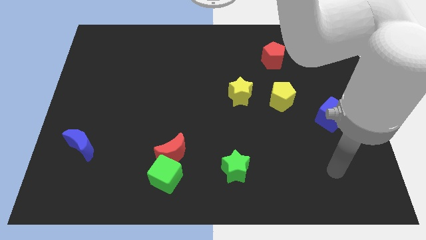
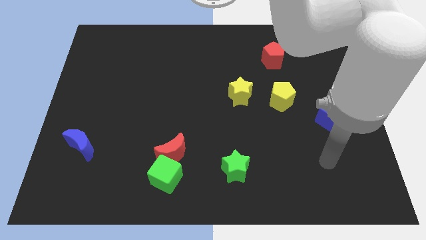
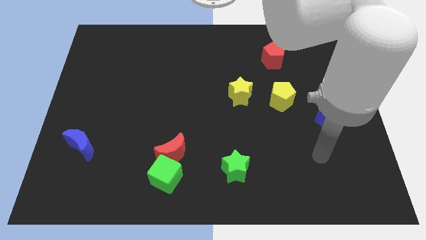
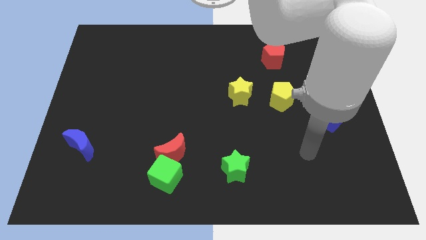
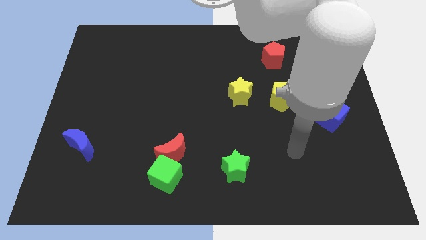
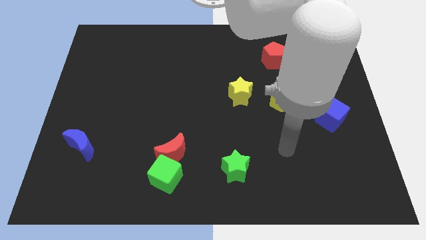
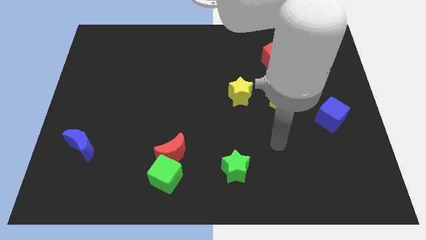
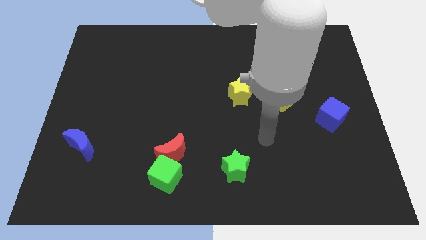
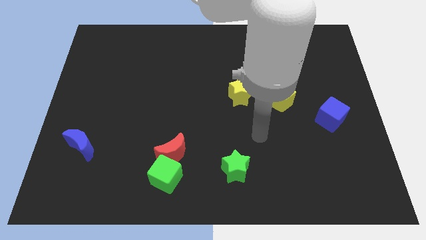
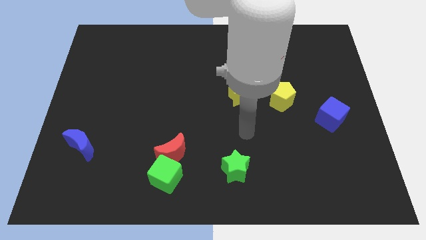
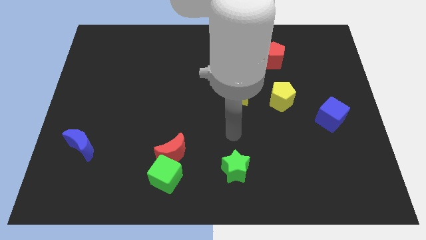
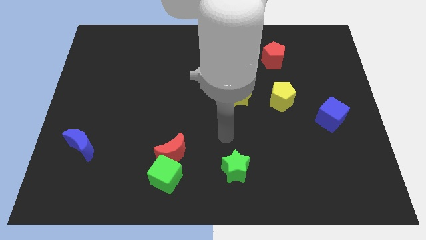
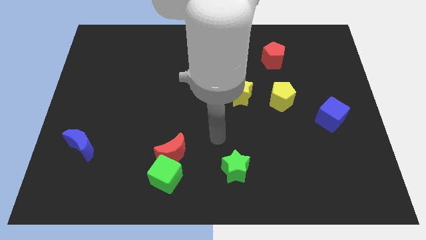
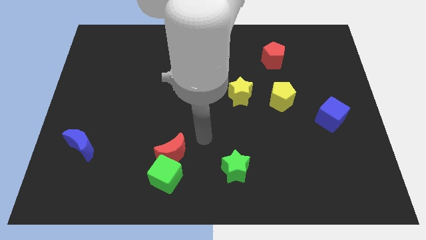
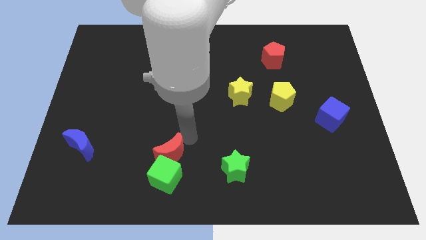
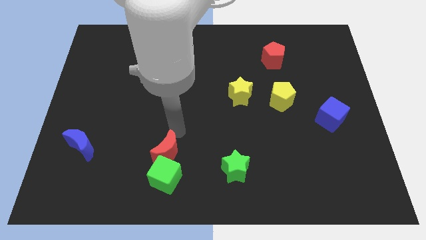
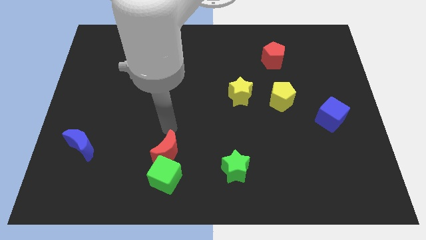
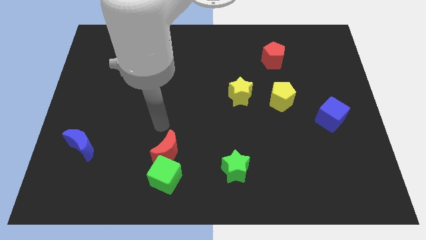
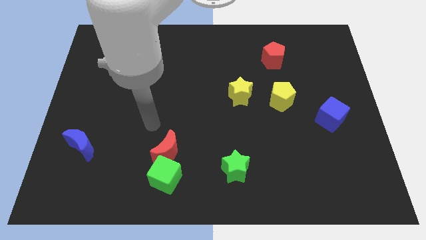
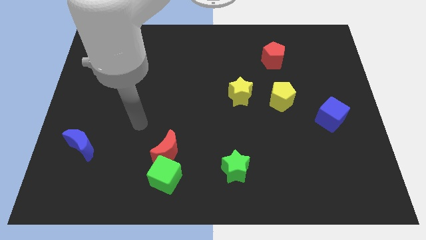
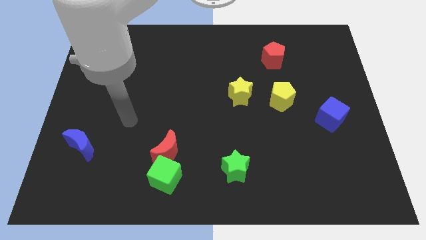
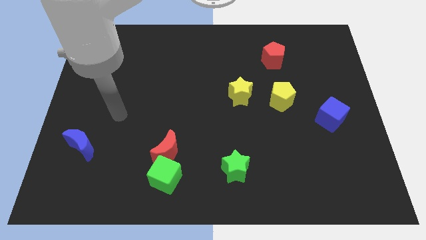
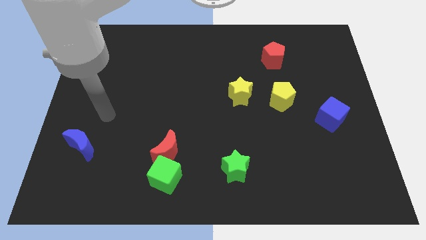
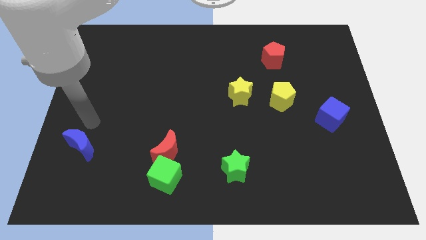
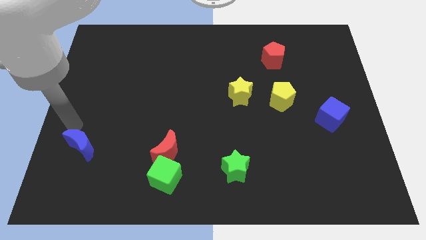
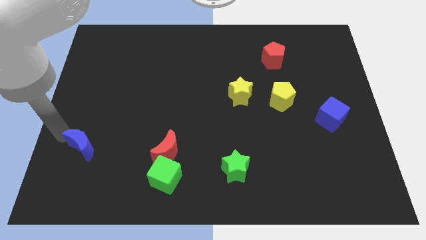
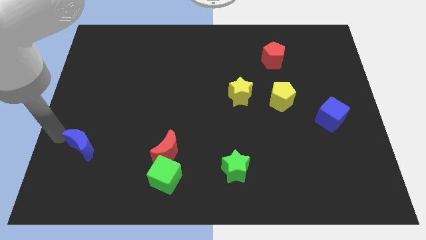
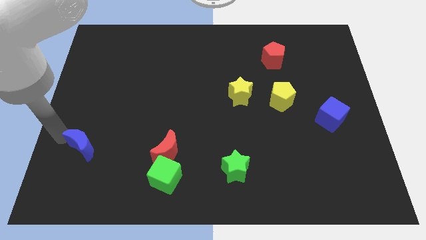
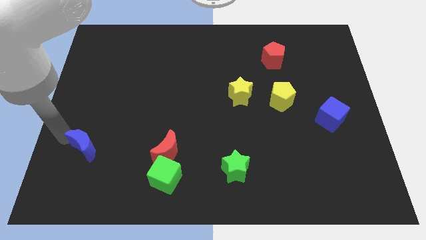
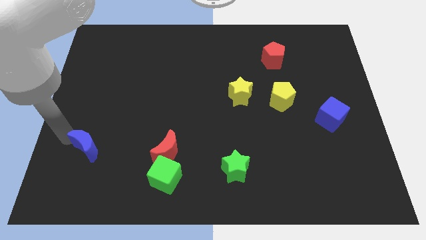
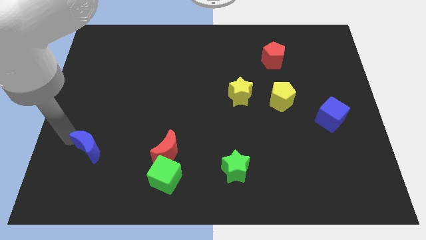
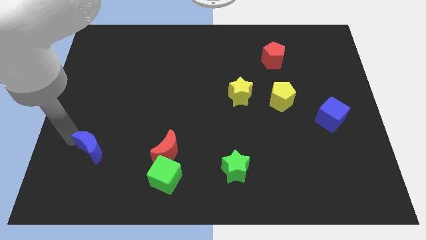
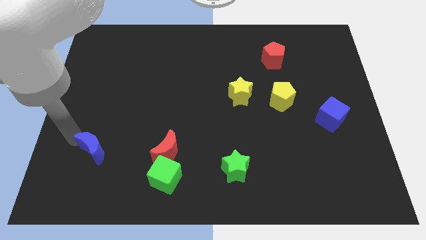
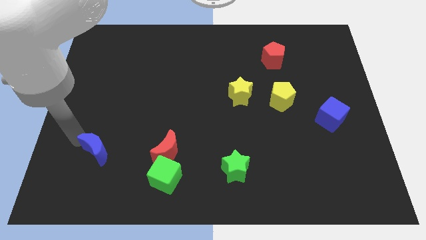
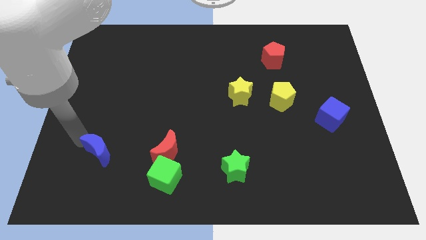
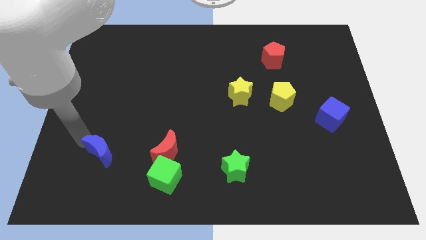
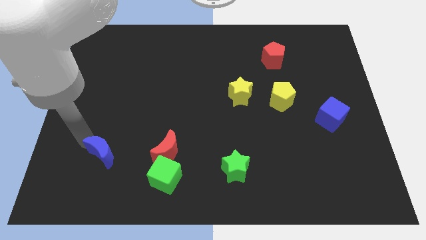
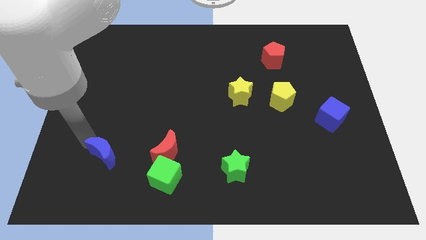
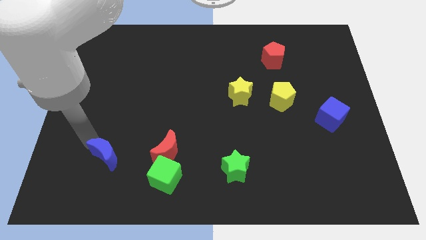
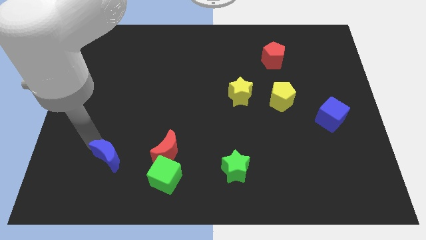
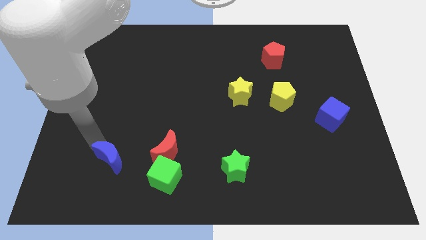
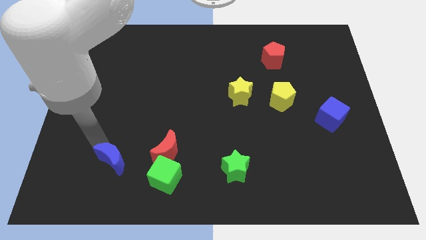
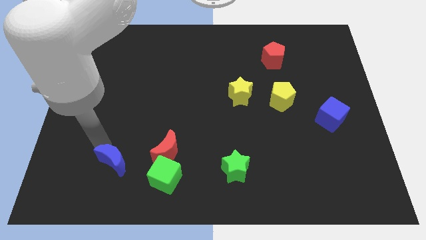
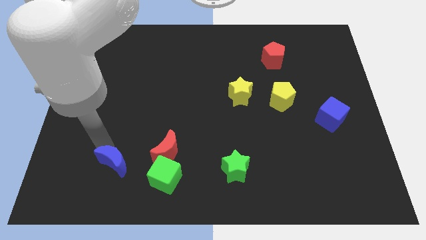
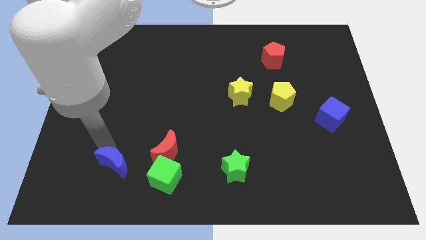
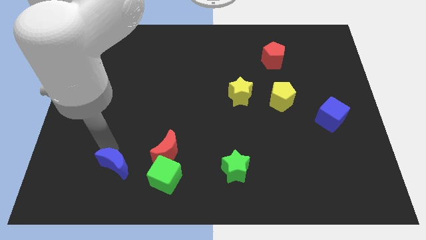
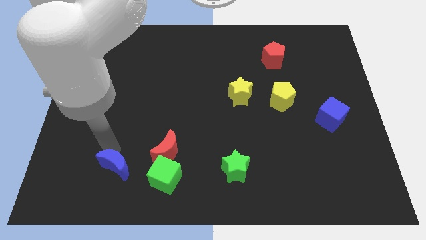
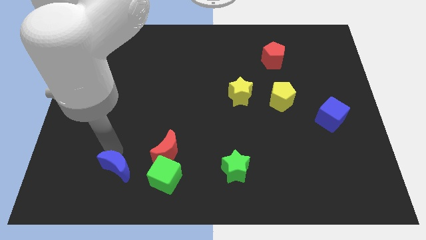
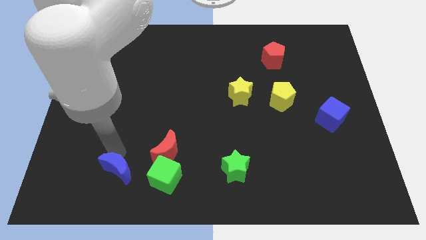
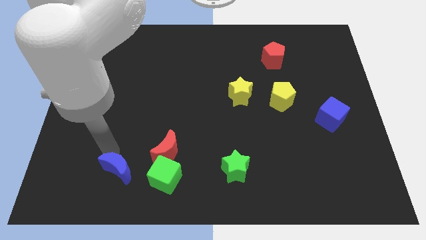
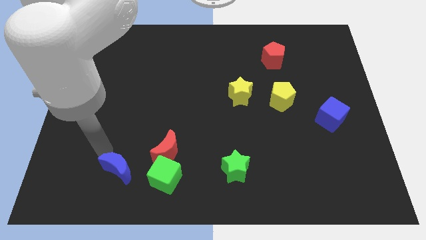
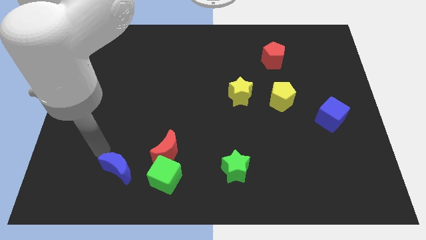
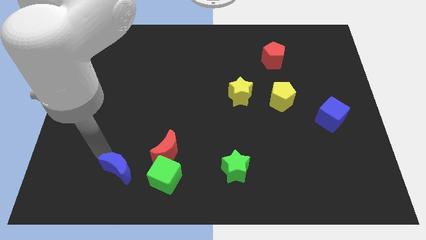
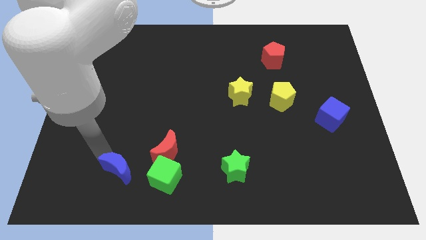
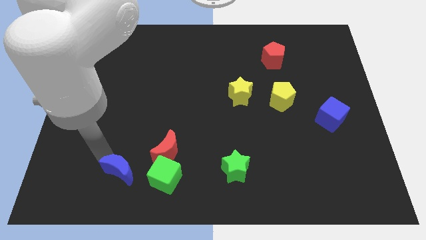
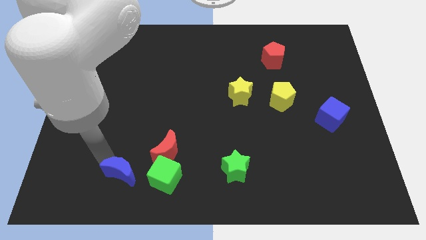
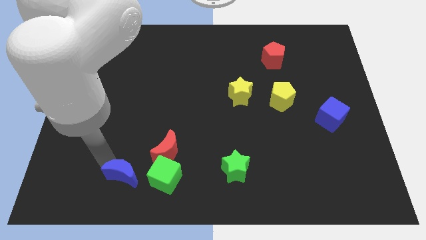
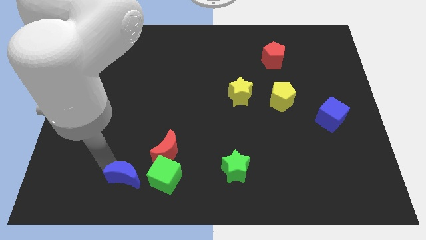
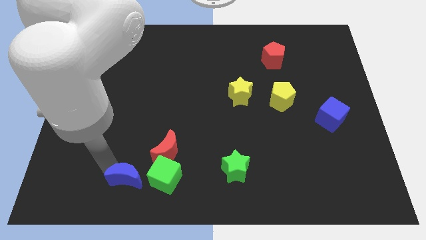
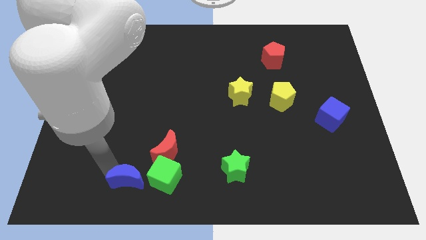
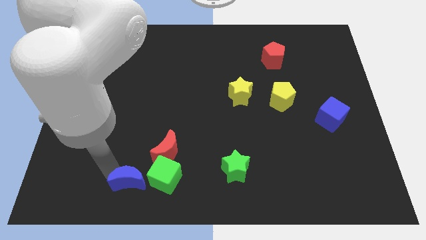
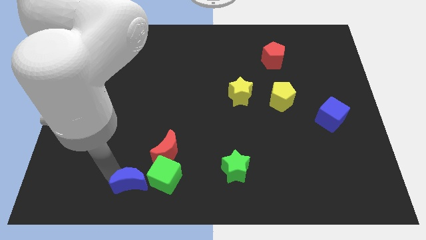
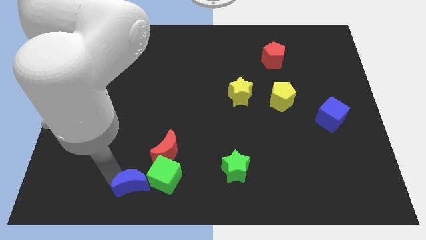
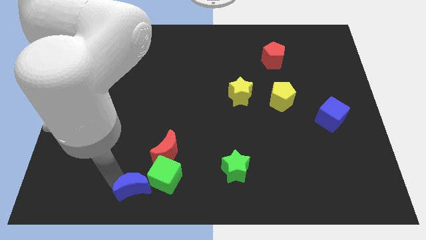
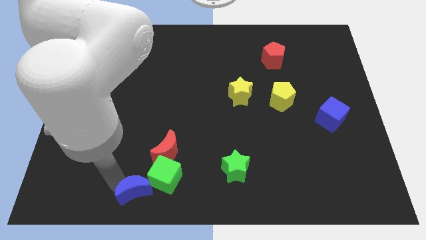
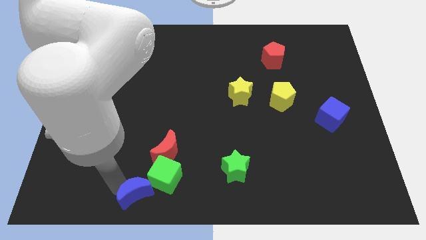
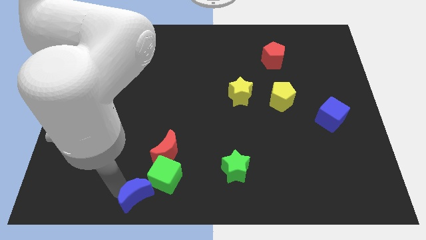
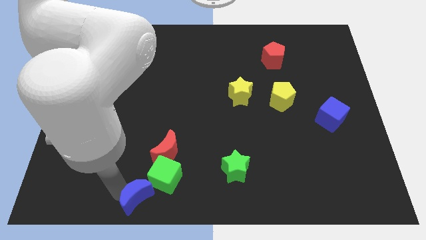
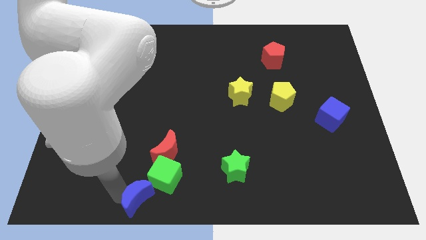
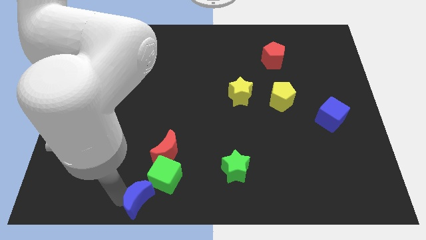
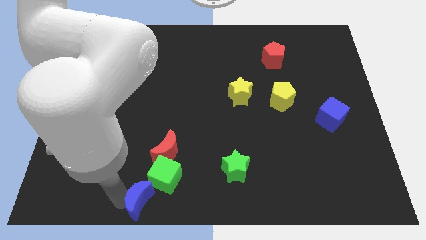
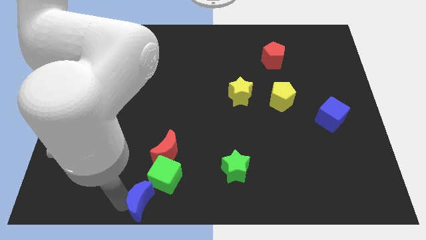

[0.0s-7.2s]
slide the blue moon to the bottom
